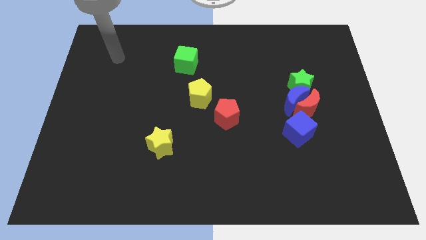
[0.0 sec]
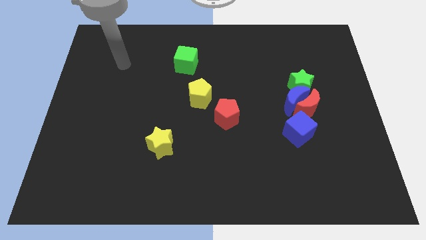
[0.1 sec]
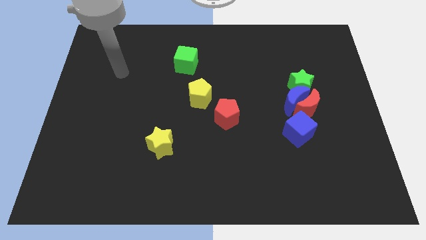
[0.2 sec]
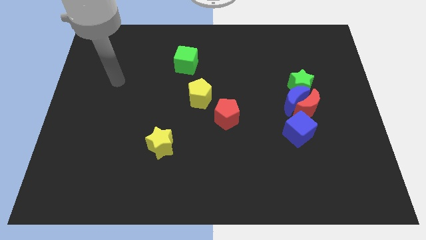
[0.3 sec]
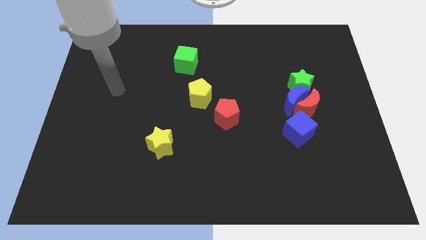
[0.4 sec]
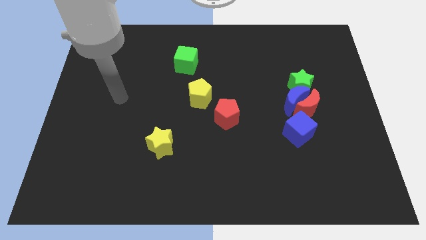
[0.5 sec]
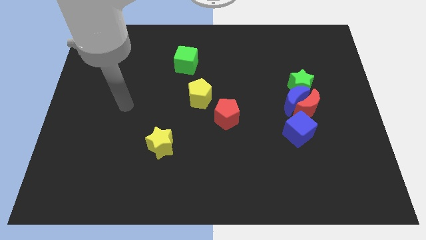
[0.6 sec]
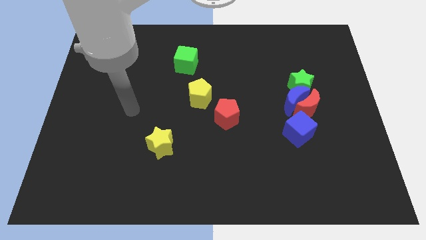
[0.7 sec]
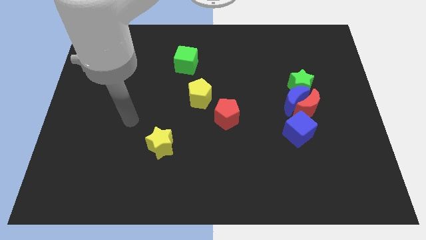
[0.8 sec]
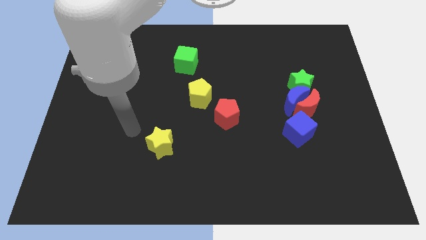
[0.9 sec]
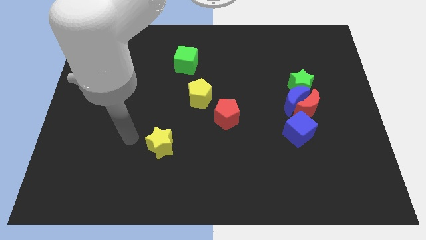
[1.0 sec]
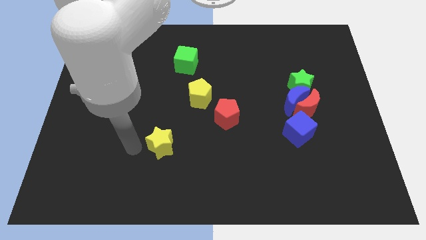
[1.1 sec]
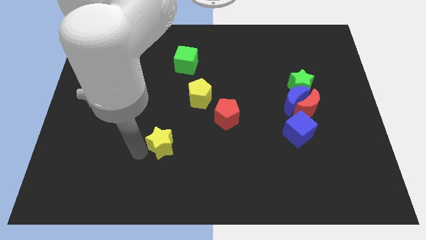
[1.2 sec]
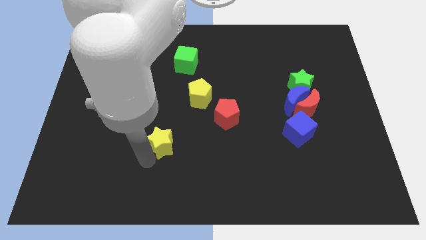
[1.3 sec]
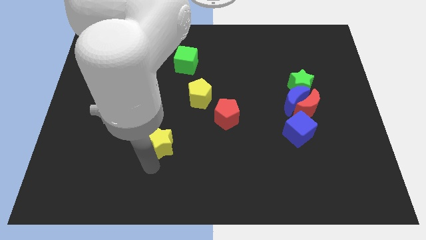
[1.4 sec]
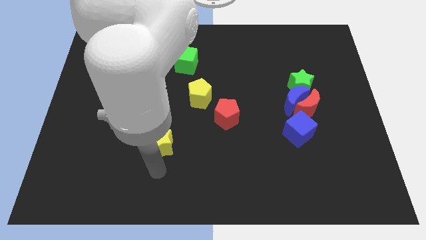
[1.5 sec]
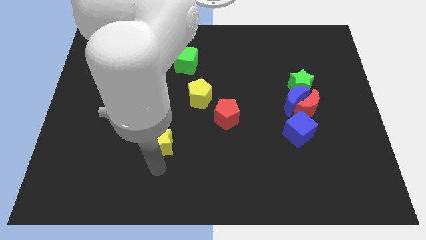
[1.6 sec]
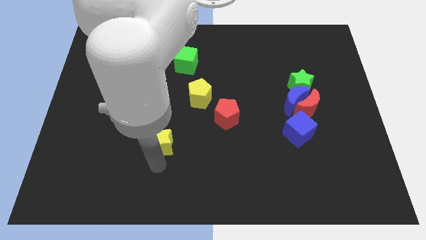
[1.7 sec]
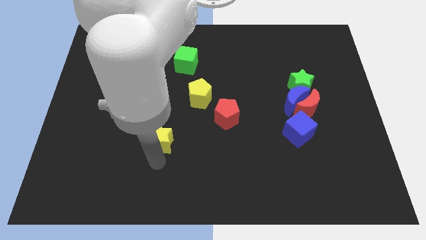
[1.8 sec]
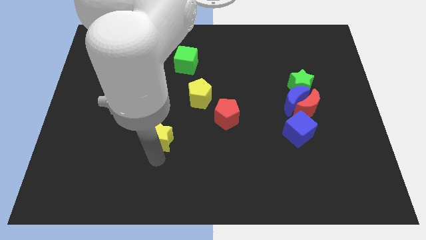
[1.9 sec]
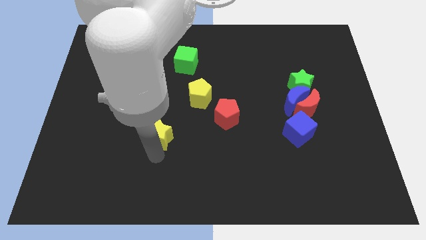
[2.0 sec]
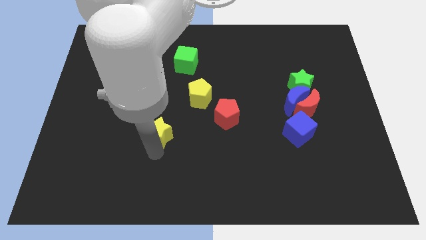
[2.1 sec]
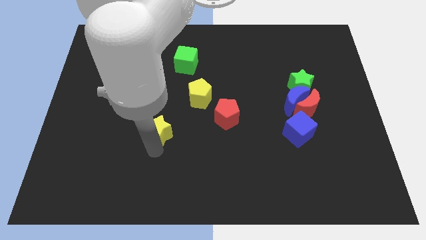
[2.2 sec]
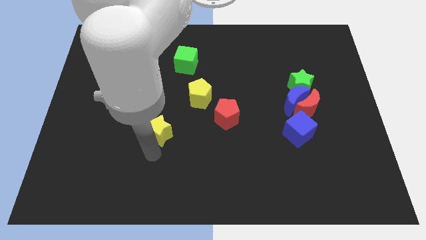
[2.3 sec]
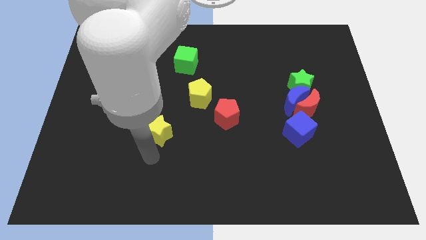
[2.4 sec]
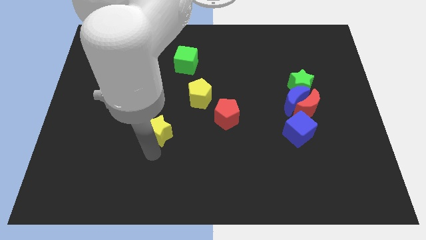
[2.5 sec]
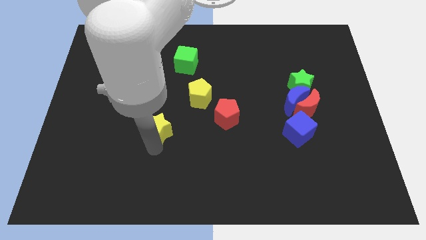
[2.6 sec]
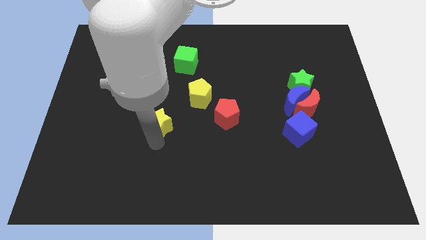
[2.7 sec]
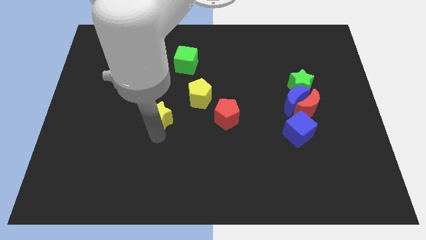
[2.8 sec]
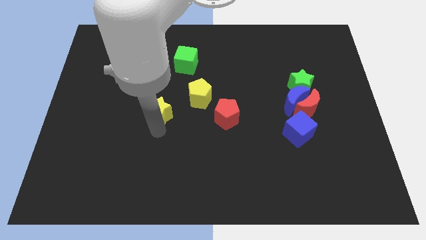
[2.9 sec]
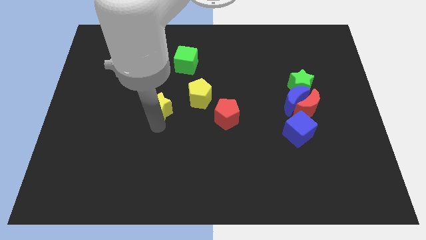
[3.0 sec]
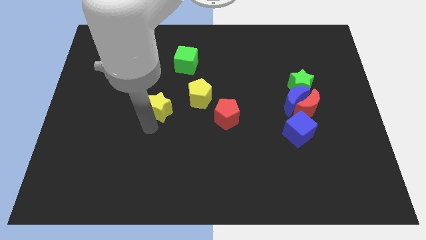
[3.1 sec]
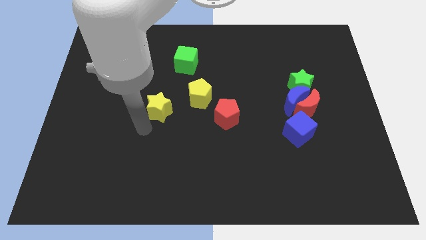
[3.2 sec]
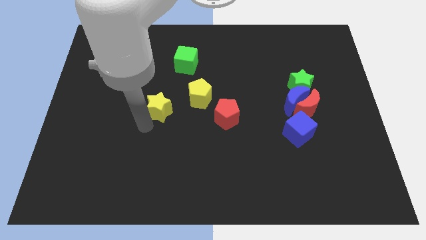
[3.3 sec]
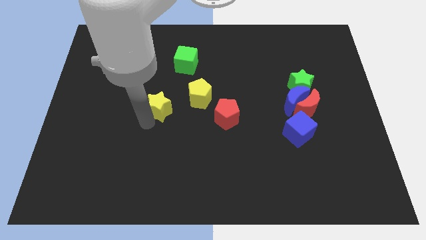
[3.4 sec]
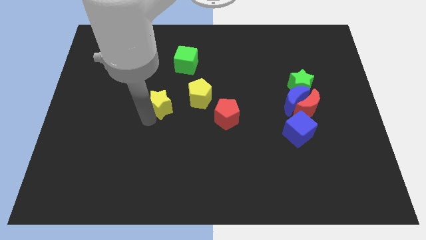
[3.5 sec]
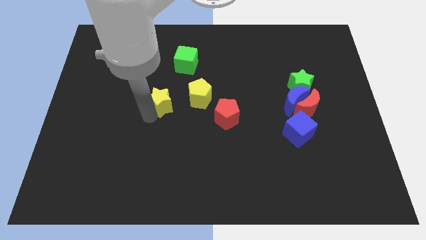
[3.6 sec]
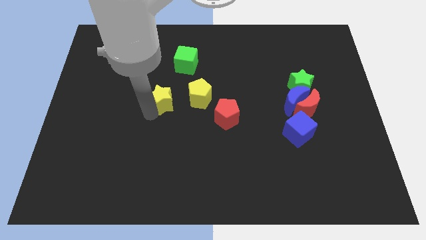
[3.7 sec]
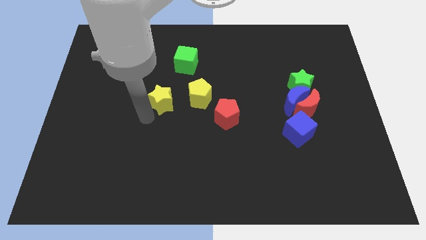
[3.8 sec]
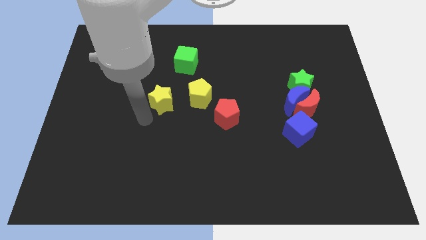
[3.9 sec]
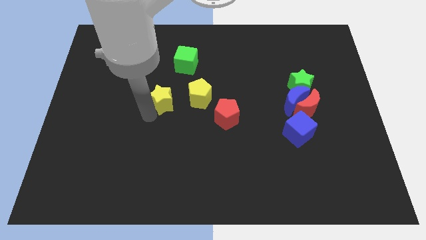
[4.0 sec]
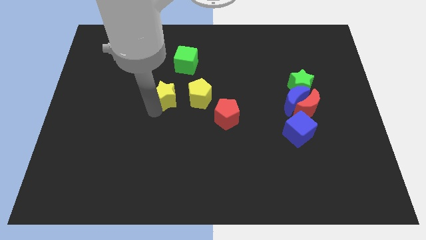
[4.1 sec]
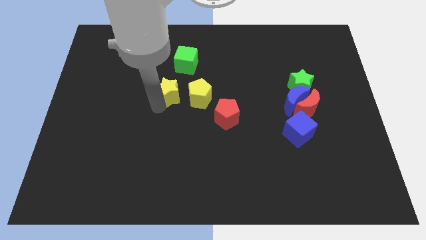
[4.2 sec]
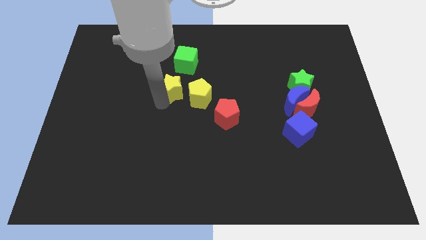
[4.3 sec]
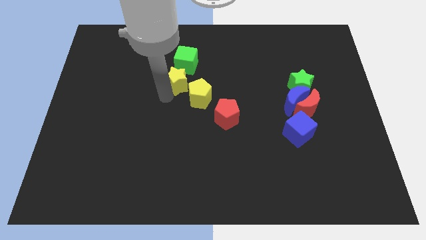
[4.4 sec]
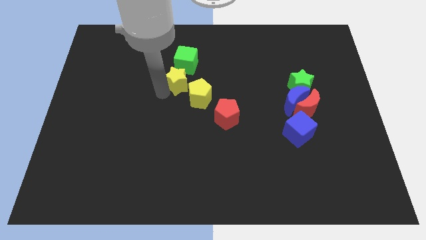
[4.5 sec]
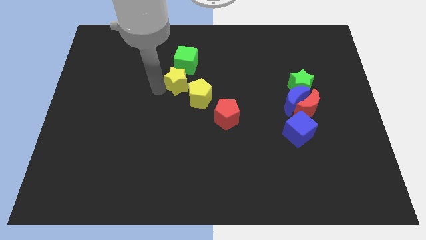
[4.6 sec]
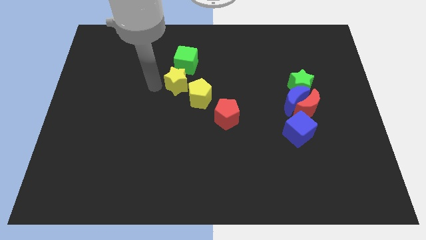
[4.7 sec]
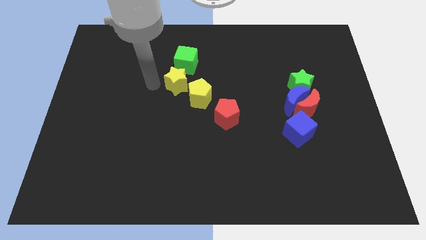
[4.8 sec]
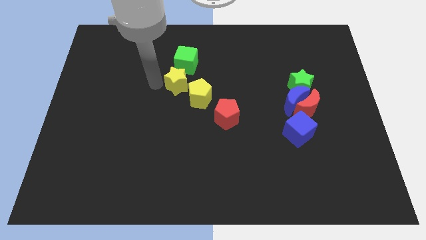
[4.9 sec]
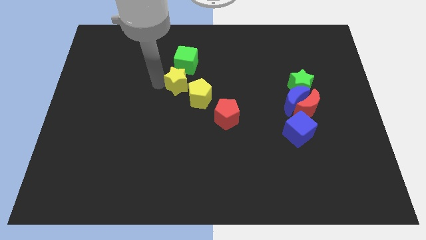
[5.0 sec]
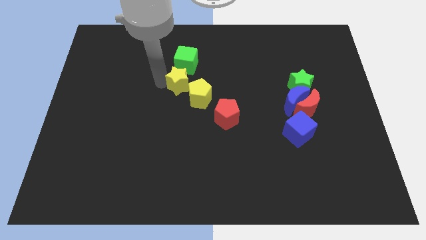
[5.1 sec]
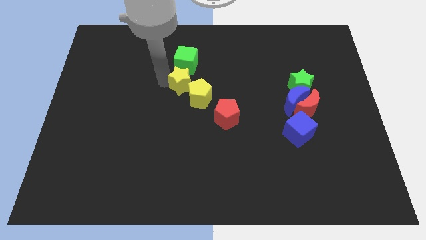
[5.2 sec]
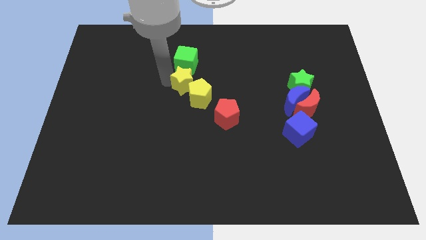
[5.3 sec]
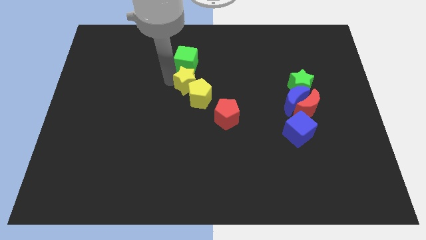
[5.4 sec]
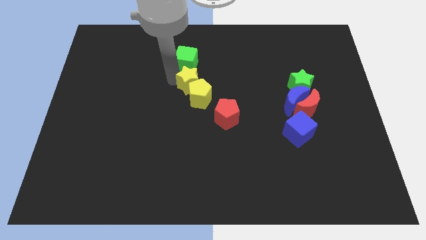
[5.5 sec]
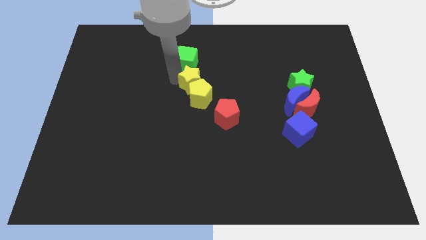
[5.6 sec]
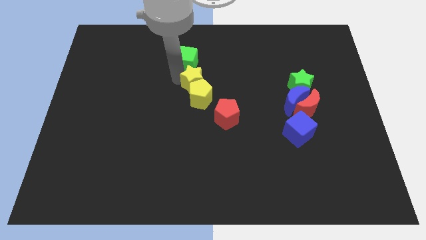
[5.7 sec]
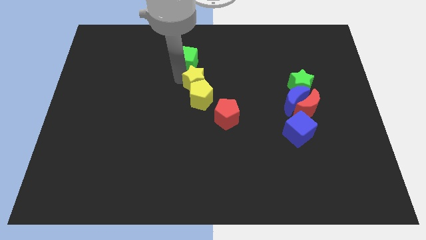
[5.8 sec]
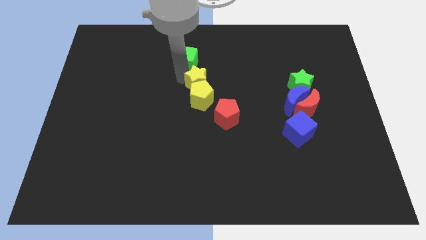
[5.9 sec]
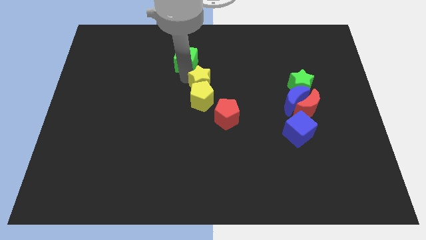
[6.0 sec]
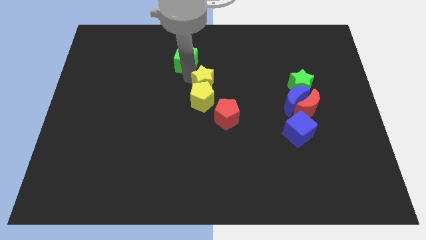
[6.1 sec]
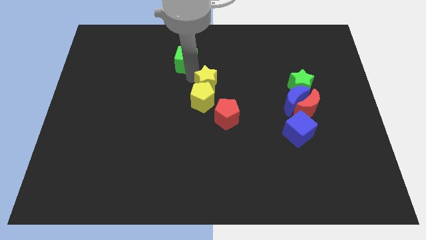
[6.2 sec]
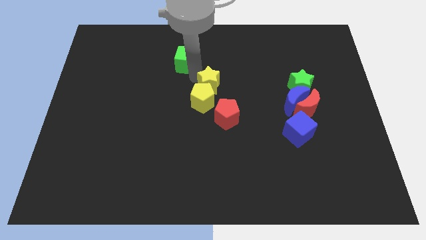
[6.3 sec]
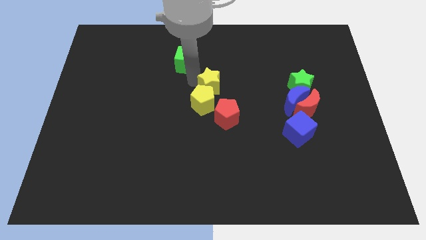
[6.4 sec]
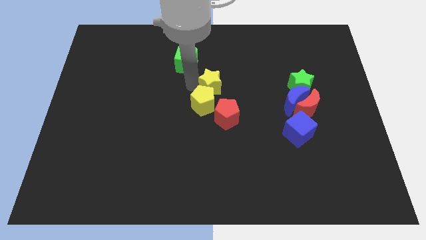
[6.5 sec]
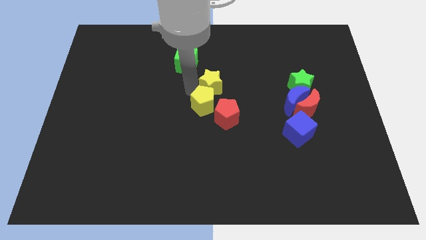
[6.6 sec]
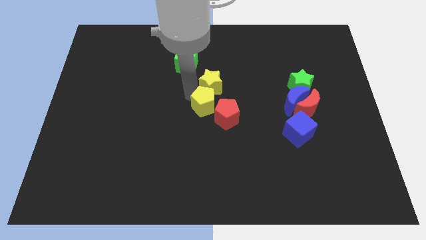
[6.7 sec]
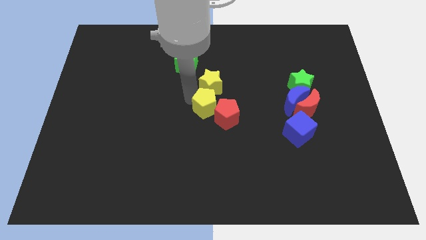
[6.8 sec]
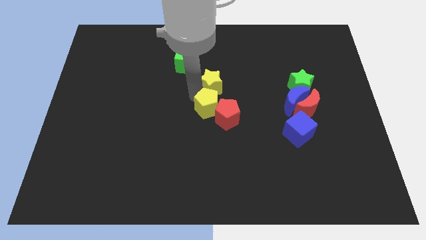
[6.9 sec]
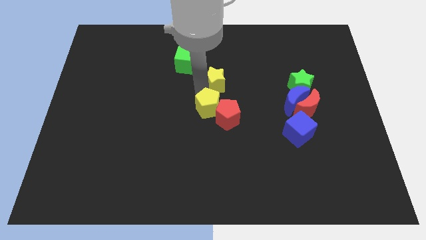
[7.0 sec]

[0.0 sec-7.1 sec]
slide the yellow star up and to the right diagonally

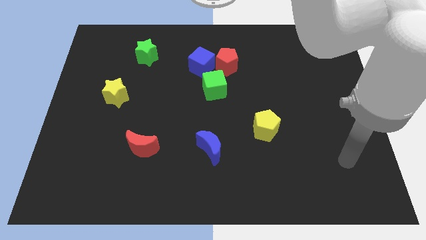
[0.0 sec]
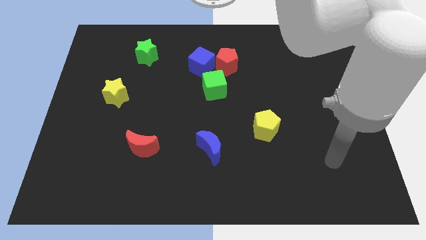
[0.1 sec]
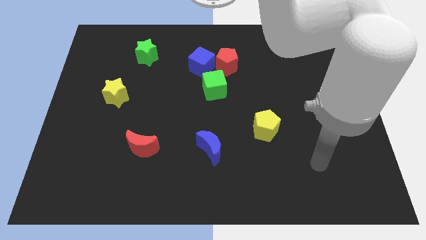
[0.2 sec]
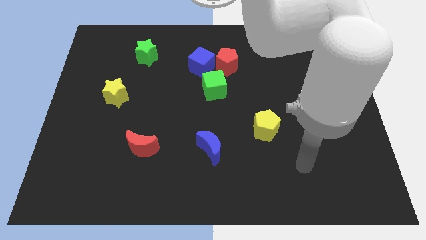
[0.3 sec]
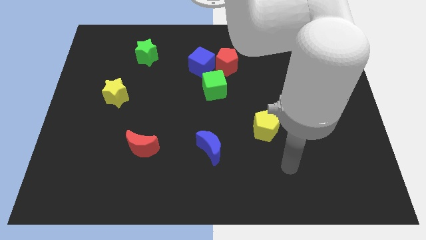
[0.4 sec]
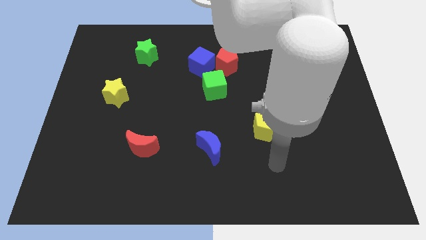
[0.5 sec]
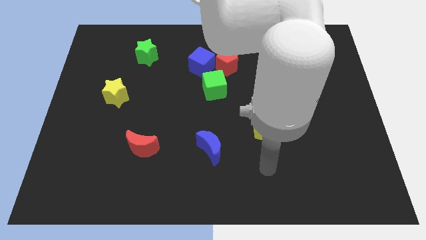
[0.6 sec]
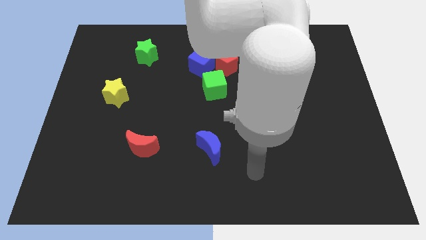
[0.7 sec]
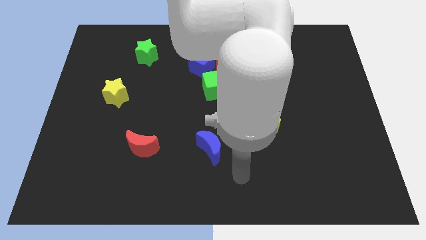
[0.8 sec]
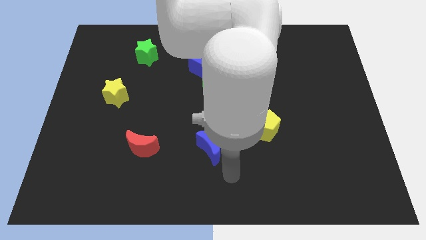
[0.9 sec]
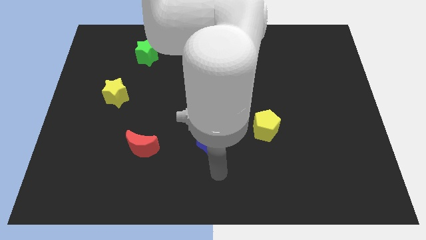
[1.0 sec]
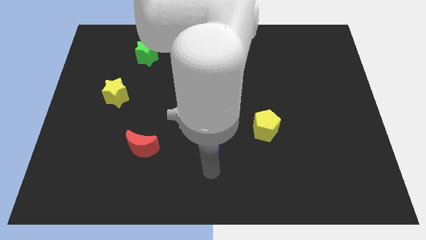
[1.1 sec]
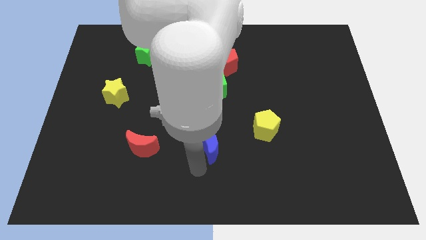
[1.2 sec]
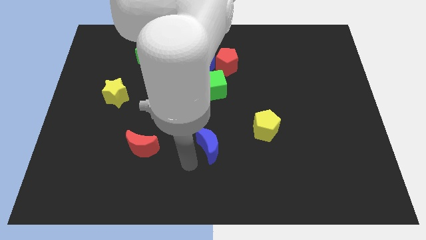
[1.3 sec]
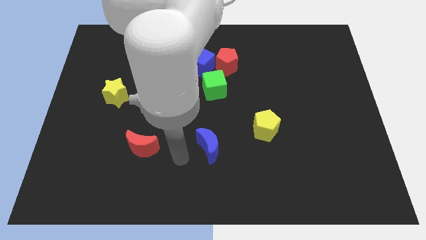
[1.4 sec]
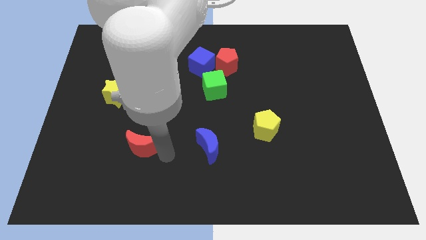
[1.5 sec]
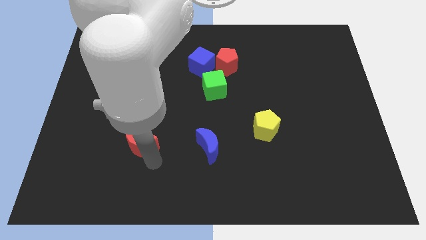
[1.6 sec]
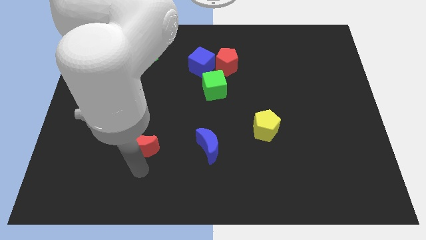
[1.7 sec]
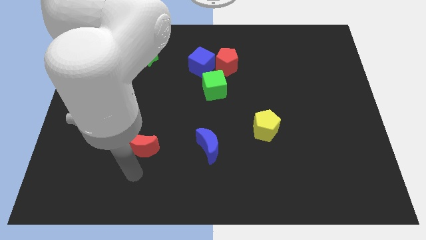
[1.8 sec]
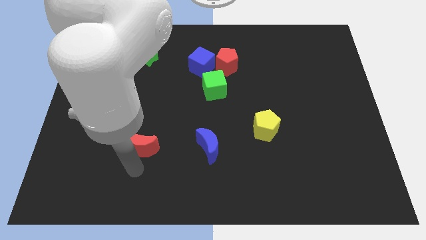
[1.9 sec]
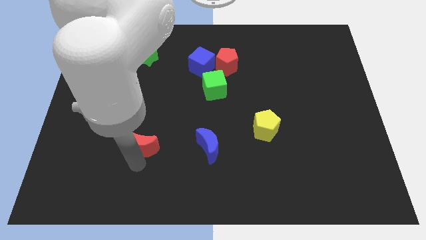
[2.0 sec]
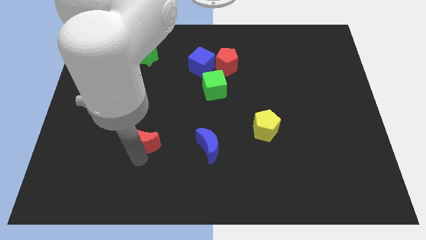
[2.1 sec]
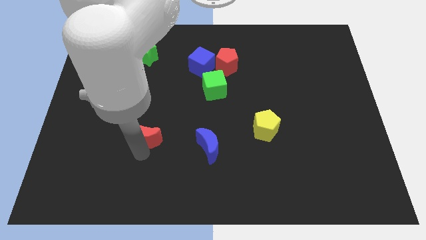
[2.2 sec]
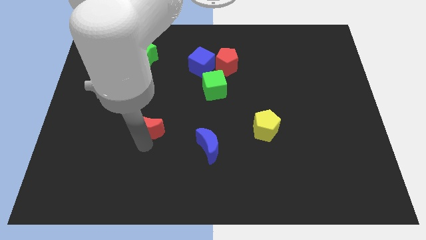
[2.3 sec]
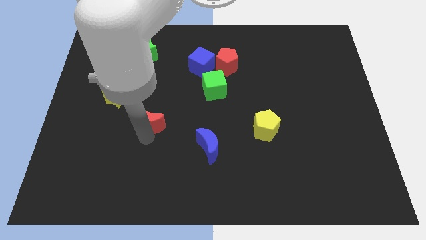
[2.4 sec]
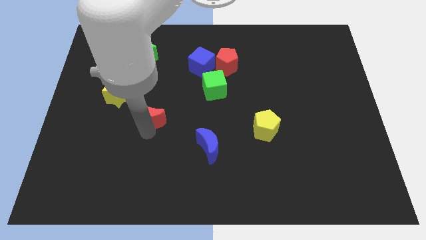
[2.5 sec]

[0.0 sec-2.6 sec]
slightly slide the red moon upwards
